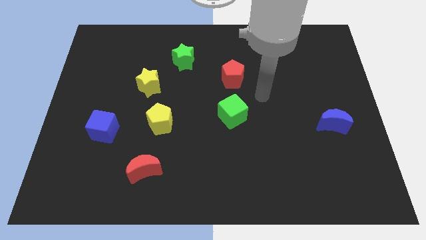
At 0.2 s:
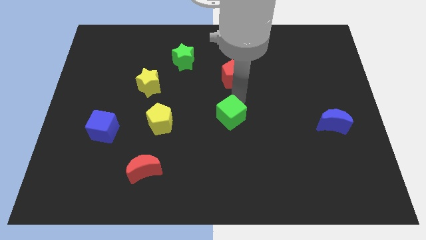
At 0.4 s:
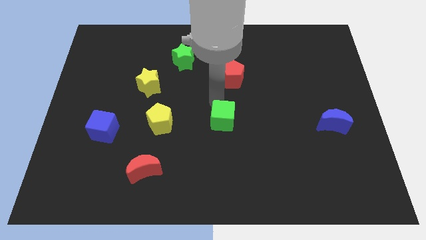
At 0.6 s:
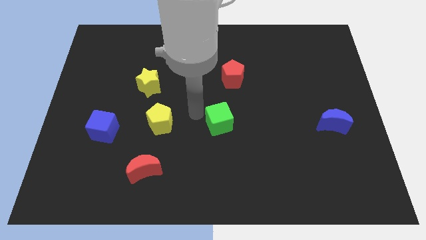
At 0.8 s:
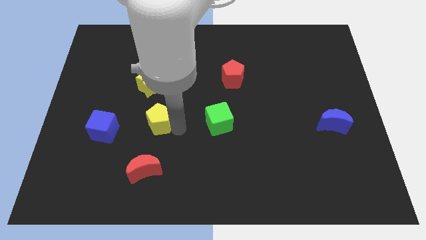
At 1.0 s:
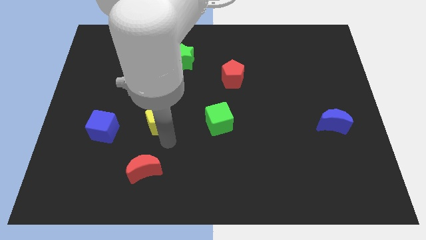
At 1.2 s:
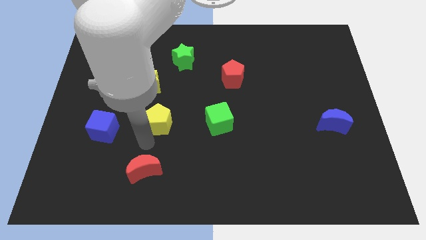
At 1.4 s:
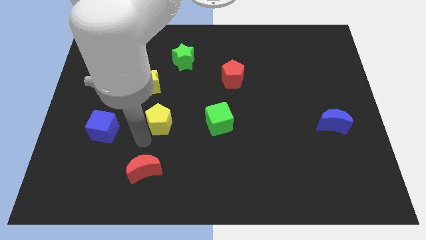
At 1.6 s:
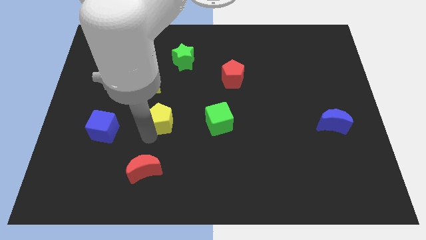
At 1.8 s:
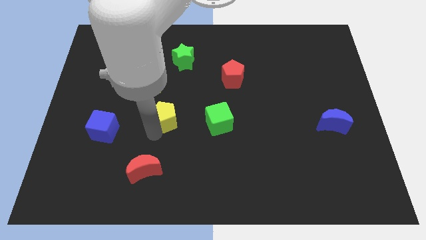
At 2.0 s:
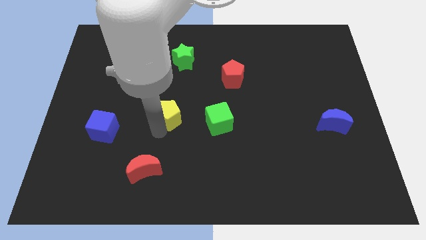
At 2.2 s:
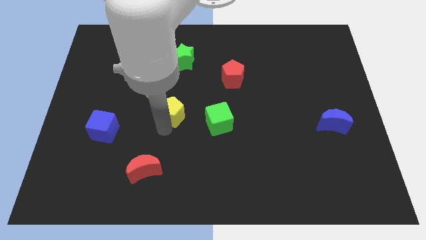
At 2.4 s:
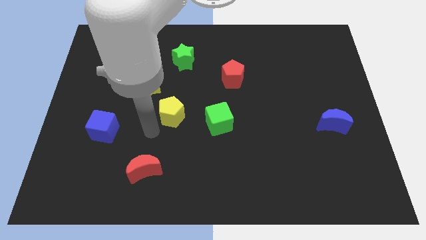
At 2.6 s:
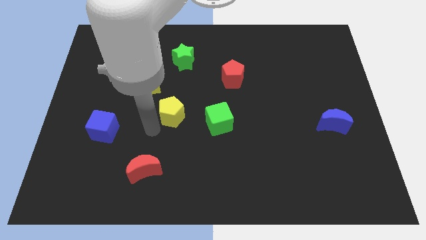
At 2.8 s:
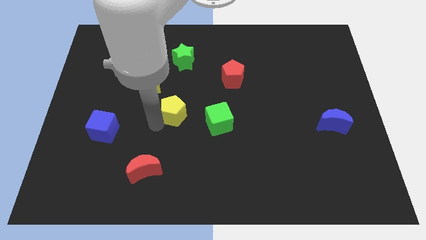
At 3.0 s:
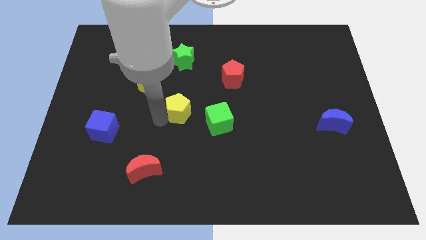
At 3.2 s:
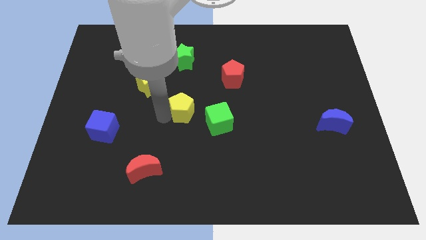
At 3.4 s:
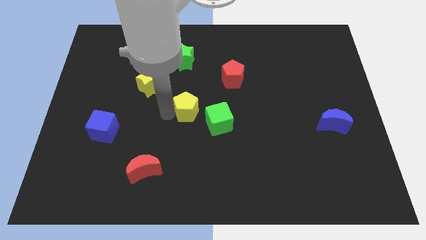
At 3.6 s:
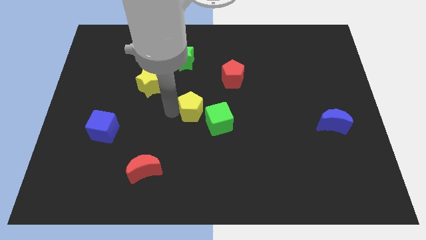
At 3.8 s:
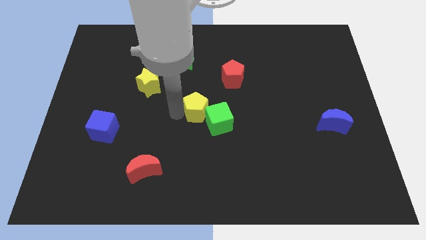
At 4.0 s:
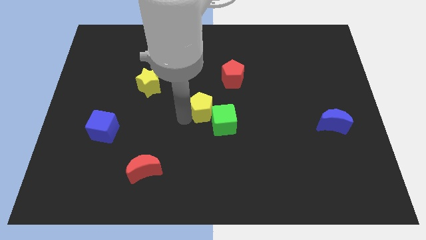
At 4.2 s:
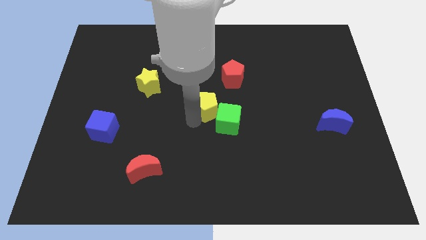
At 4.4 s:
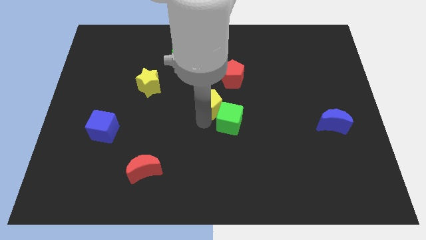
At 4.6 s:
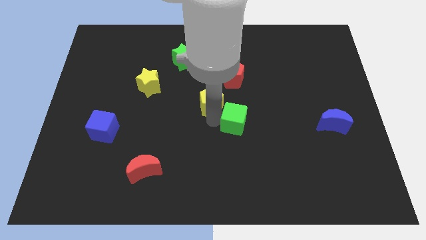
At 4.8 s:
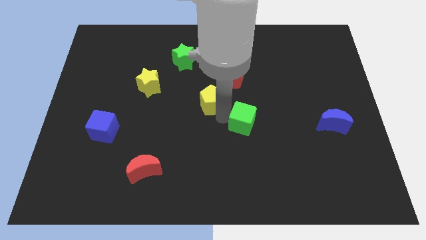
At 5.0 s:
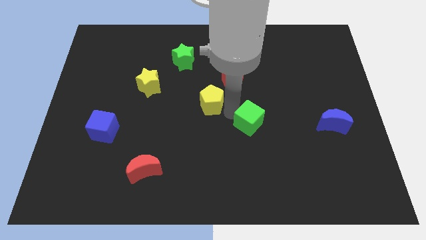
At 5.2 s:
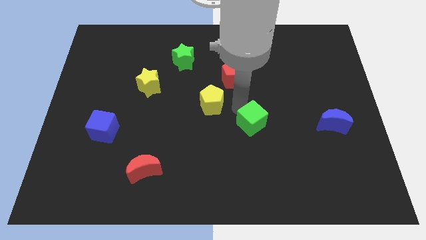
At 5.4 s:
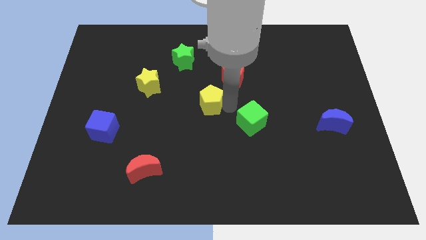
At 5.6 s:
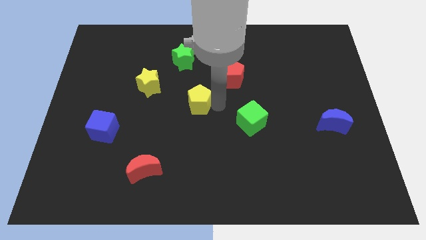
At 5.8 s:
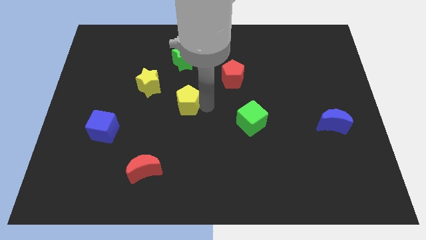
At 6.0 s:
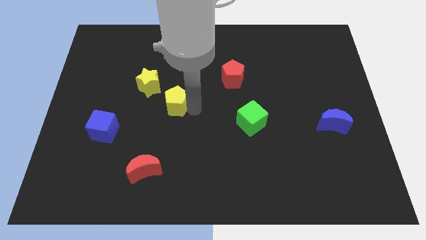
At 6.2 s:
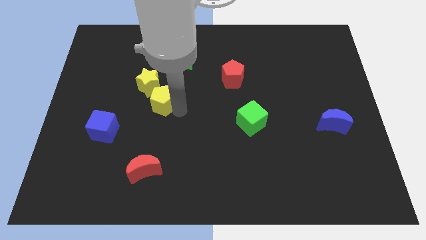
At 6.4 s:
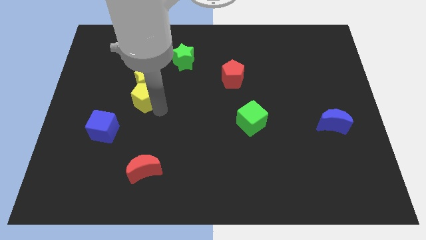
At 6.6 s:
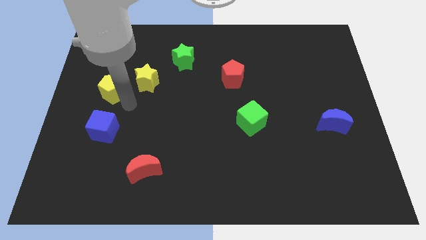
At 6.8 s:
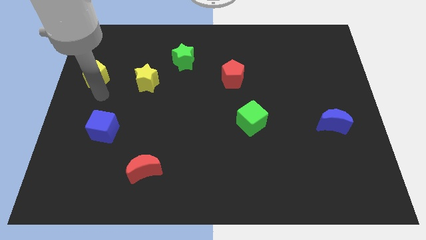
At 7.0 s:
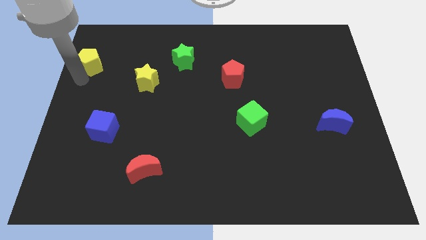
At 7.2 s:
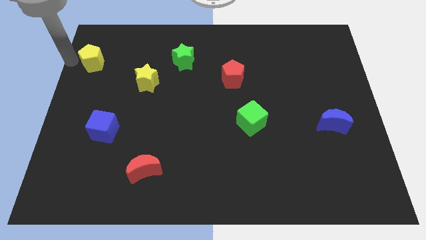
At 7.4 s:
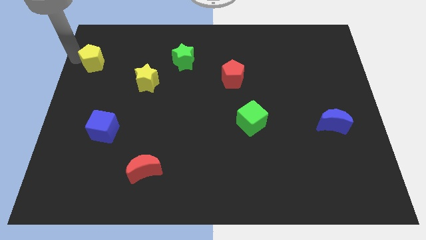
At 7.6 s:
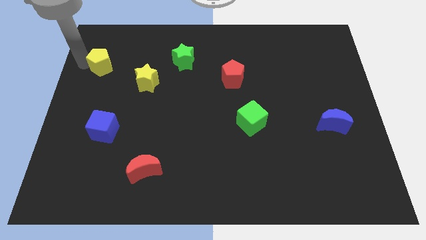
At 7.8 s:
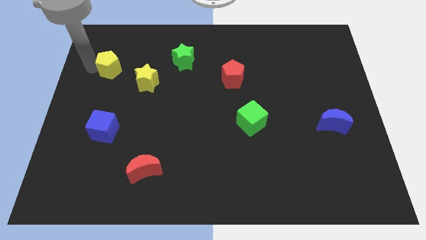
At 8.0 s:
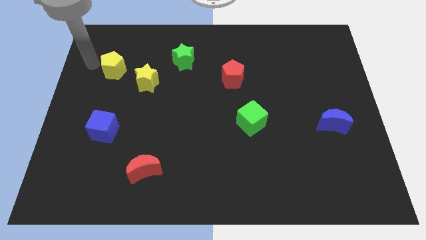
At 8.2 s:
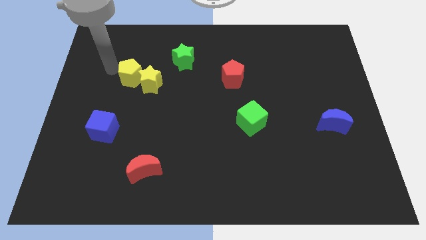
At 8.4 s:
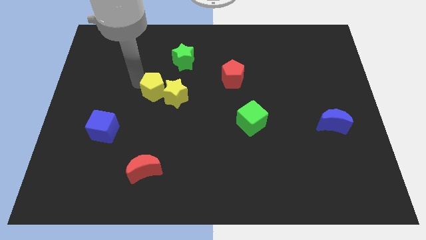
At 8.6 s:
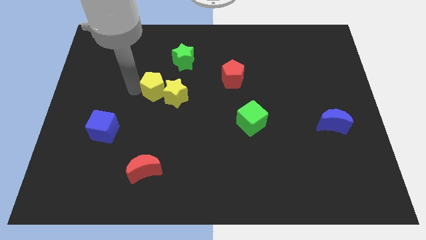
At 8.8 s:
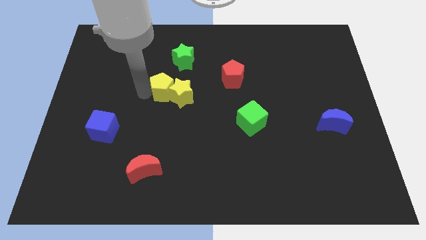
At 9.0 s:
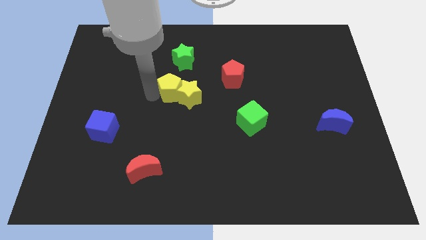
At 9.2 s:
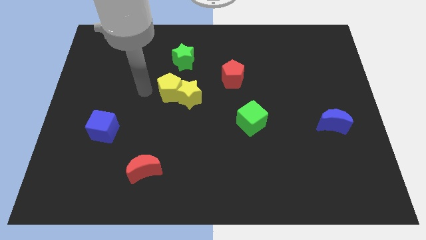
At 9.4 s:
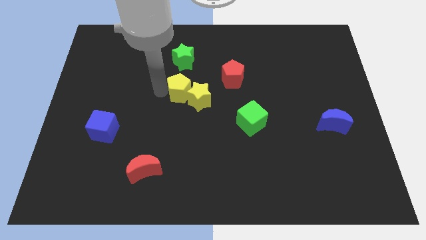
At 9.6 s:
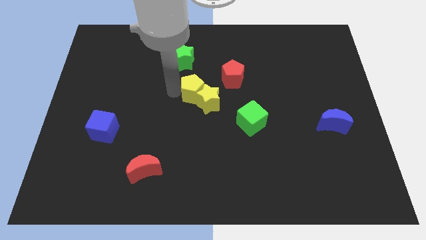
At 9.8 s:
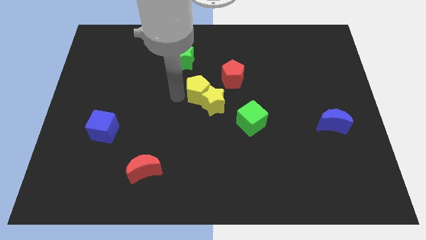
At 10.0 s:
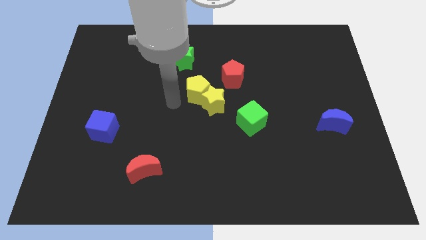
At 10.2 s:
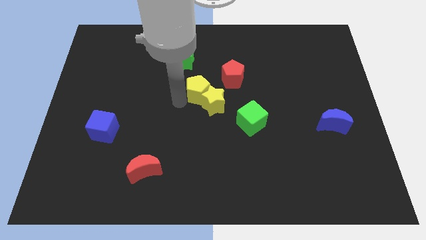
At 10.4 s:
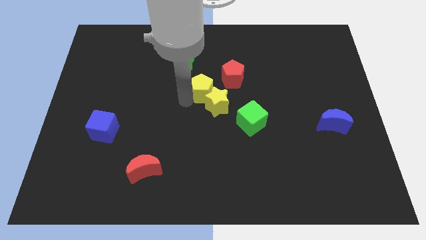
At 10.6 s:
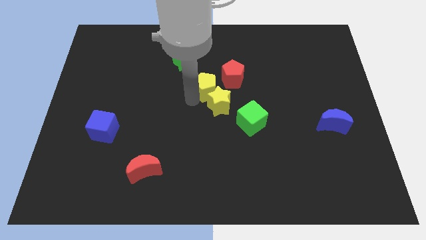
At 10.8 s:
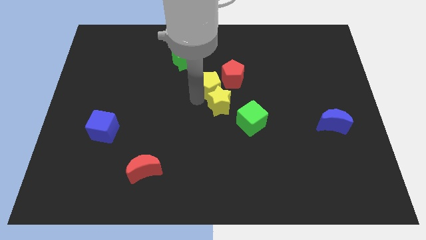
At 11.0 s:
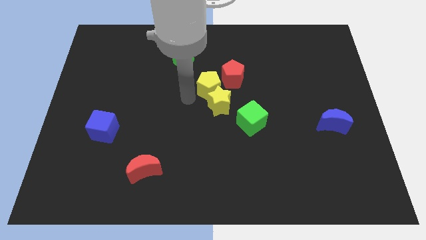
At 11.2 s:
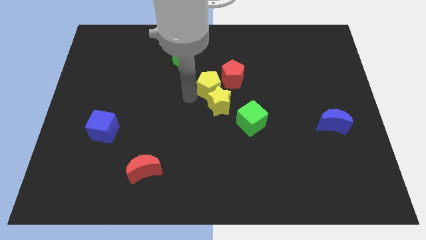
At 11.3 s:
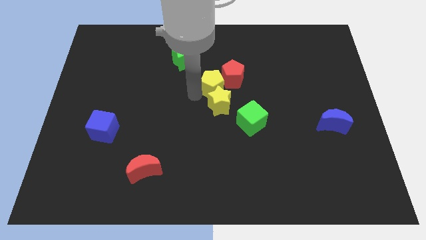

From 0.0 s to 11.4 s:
move the yellow pentagon next to the red pentagon

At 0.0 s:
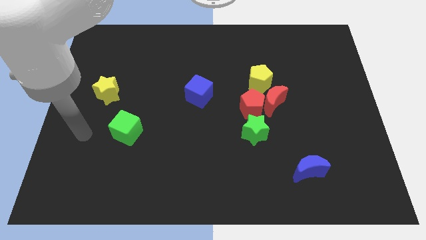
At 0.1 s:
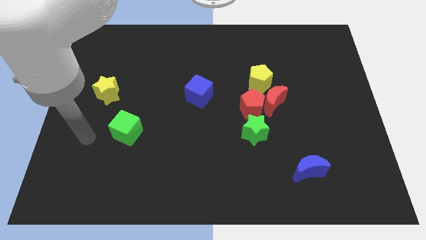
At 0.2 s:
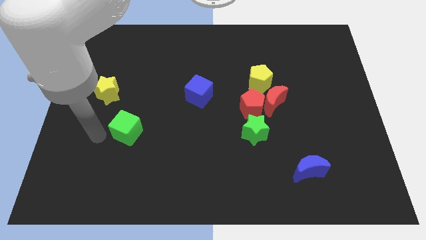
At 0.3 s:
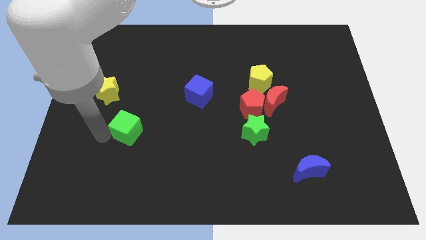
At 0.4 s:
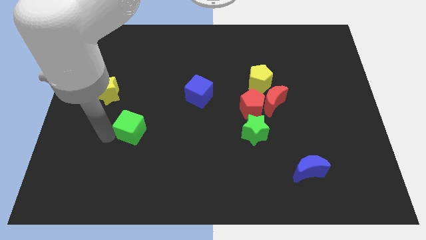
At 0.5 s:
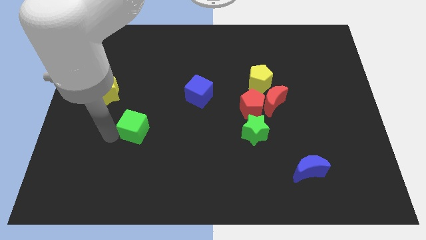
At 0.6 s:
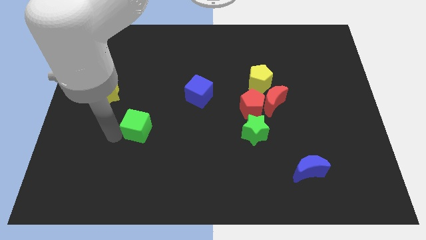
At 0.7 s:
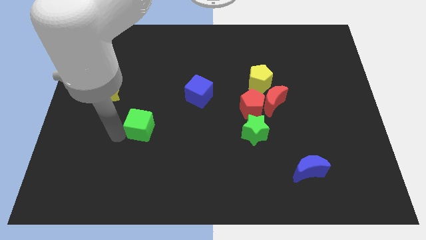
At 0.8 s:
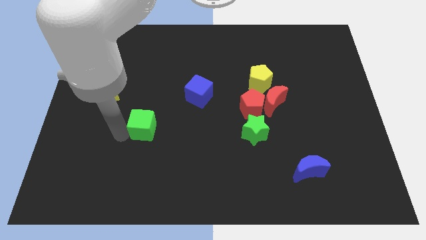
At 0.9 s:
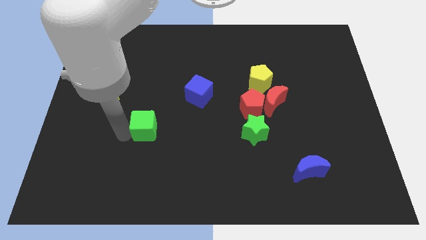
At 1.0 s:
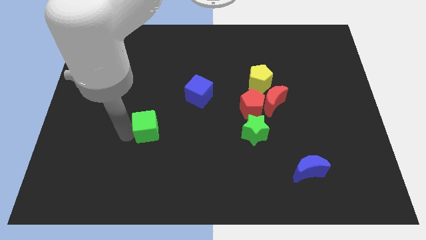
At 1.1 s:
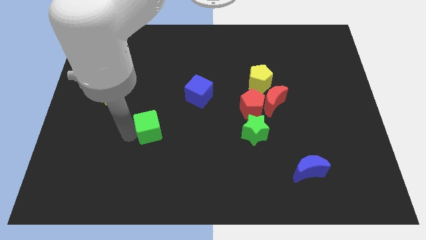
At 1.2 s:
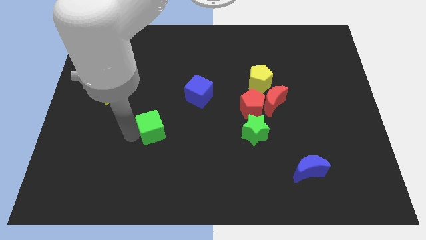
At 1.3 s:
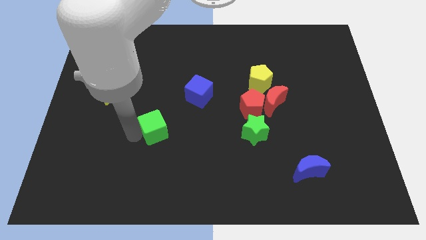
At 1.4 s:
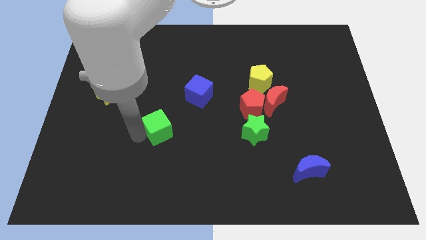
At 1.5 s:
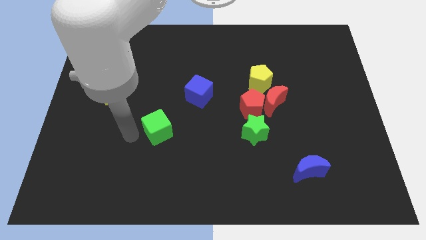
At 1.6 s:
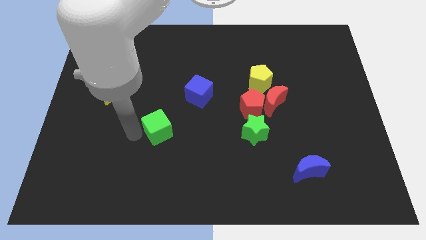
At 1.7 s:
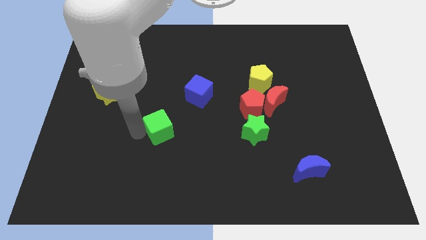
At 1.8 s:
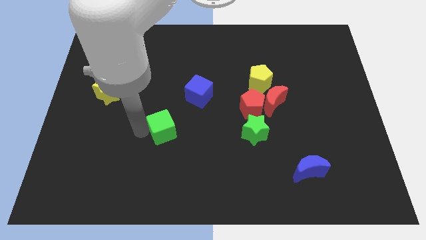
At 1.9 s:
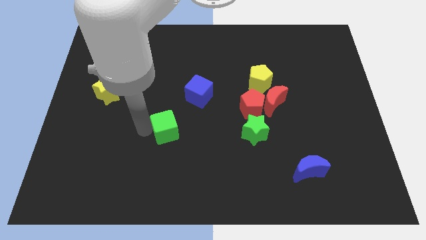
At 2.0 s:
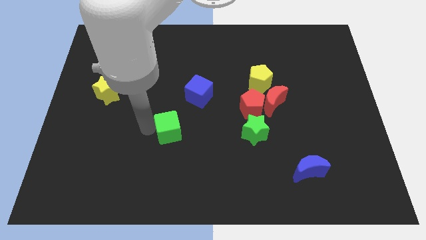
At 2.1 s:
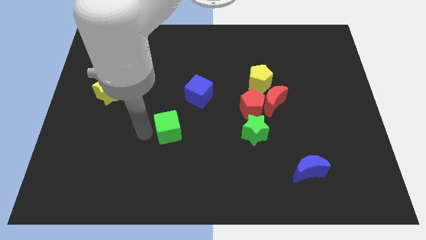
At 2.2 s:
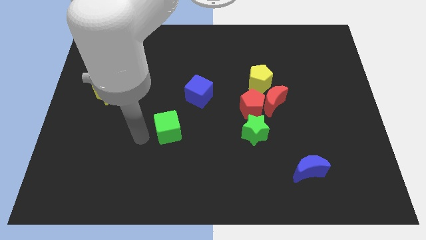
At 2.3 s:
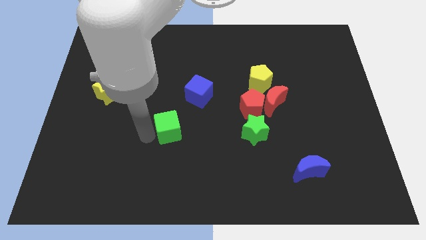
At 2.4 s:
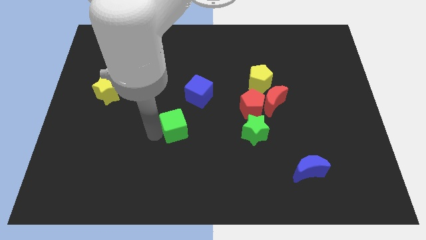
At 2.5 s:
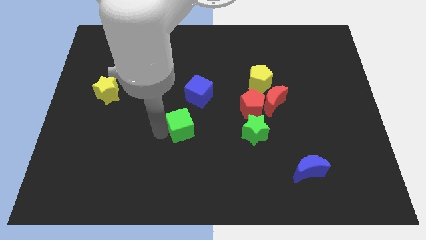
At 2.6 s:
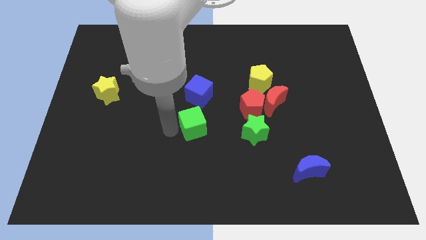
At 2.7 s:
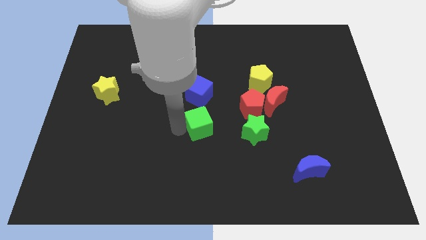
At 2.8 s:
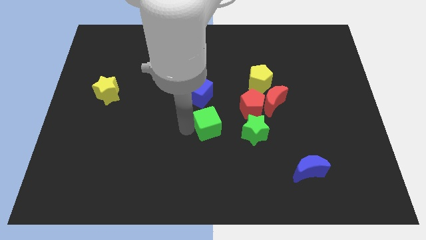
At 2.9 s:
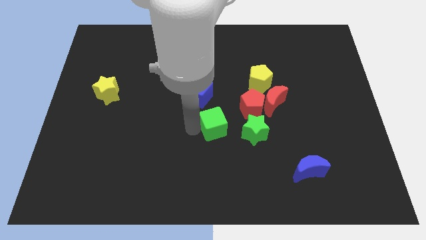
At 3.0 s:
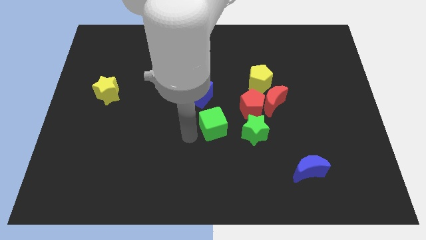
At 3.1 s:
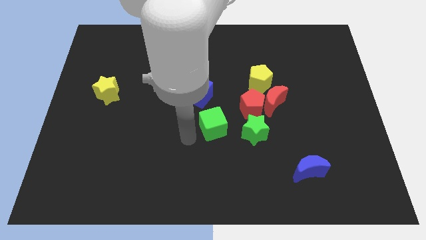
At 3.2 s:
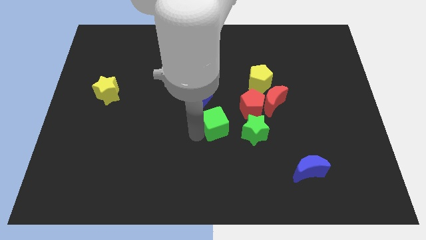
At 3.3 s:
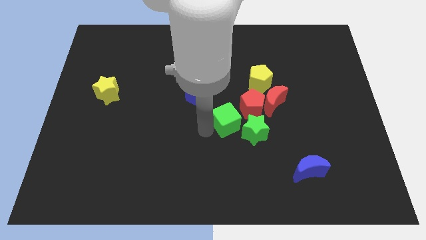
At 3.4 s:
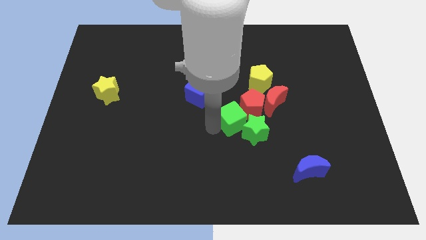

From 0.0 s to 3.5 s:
move the green cube close to the red pentagon
